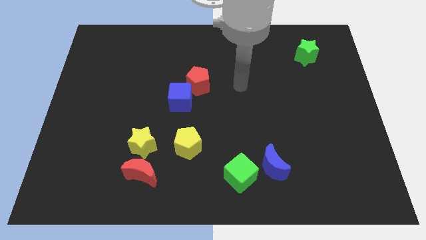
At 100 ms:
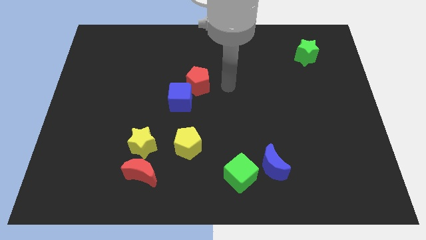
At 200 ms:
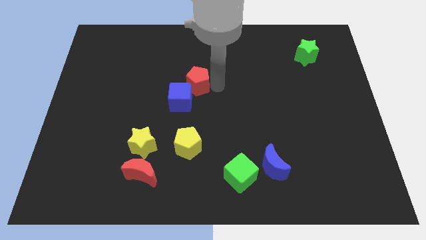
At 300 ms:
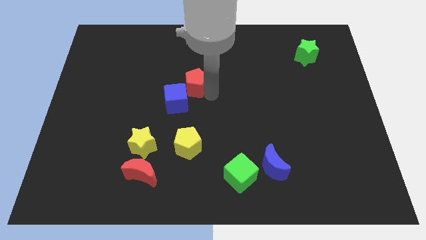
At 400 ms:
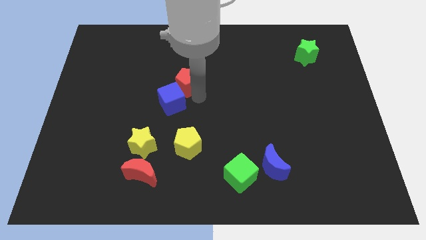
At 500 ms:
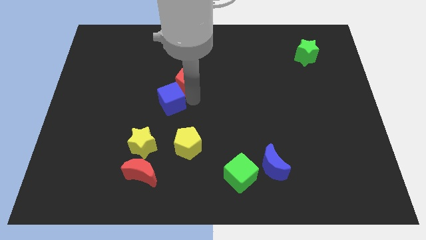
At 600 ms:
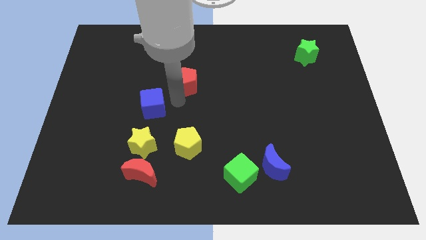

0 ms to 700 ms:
move the red pentagon away from the blue cube

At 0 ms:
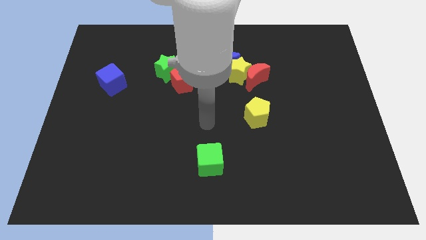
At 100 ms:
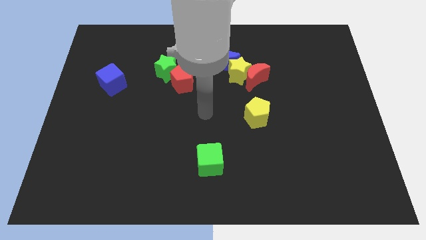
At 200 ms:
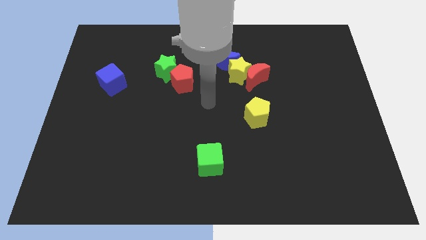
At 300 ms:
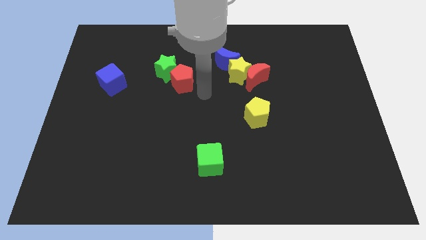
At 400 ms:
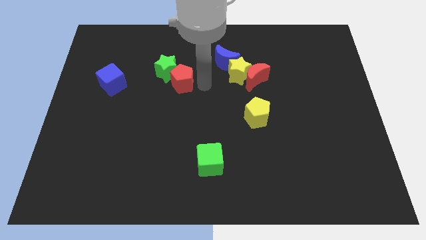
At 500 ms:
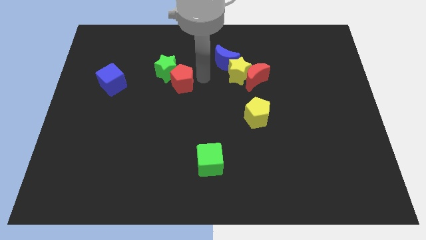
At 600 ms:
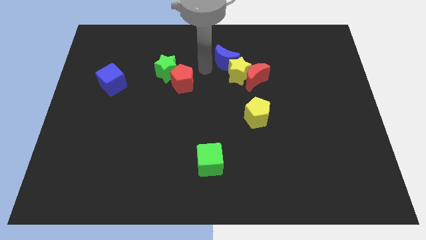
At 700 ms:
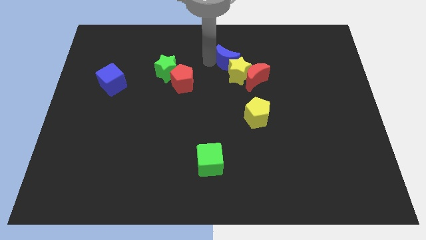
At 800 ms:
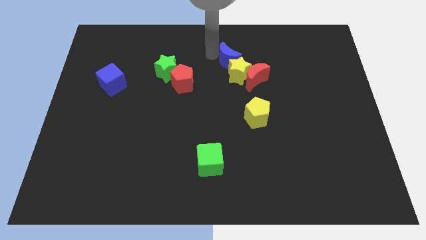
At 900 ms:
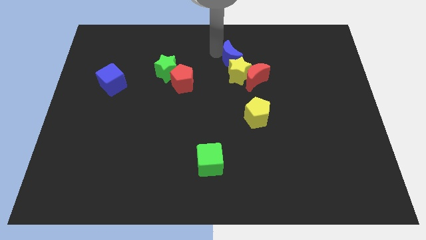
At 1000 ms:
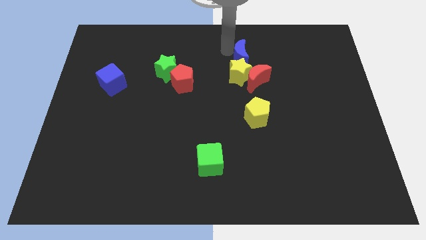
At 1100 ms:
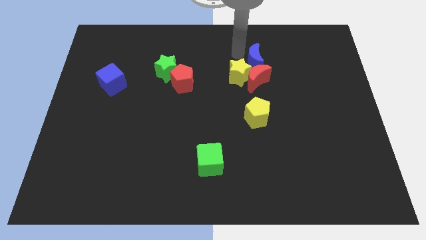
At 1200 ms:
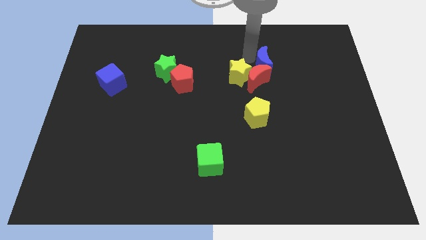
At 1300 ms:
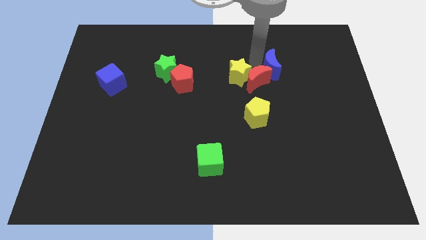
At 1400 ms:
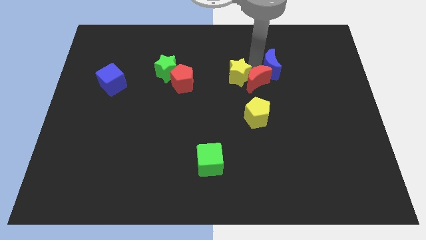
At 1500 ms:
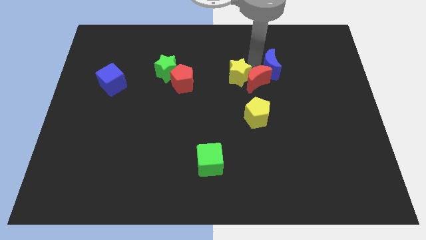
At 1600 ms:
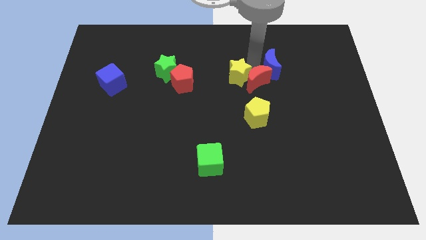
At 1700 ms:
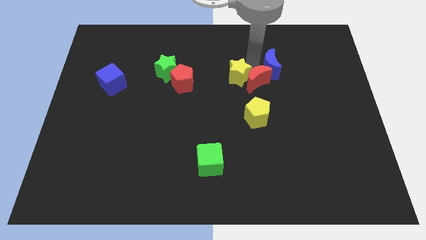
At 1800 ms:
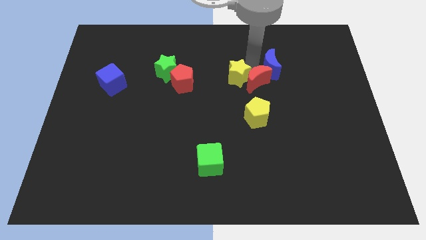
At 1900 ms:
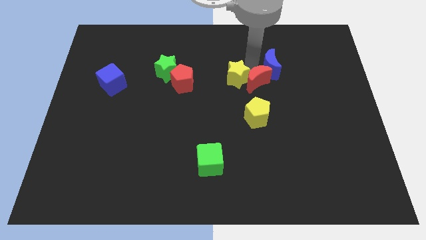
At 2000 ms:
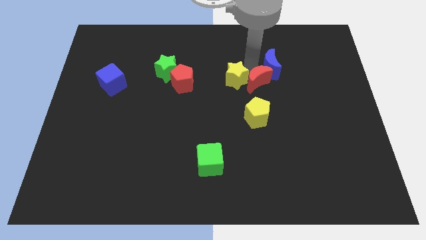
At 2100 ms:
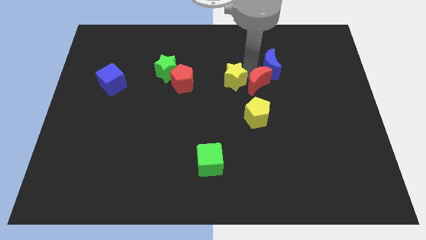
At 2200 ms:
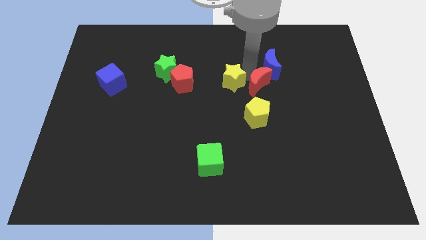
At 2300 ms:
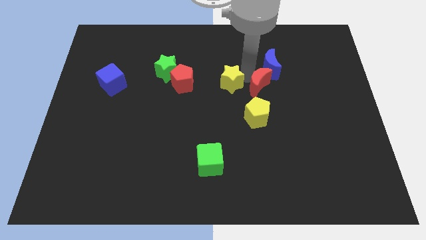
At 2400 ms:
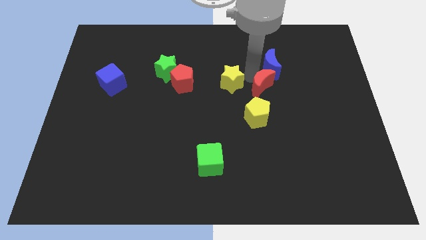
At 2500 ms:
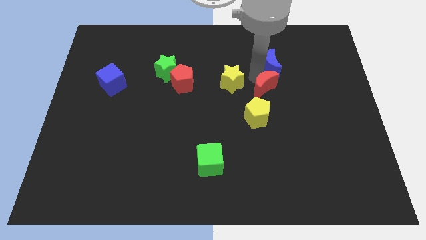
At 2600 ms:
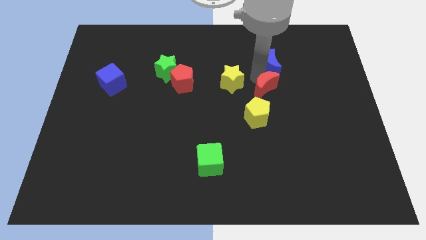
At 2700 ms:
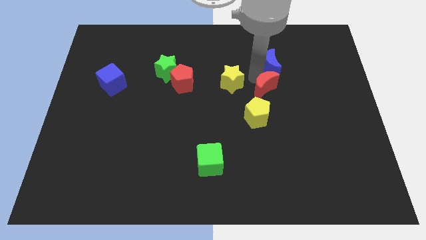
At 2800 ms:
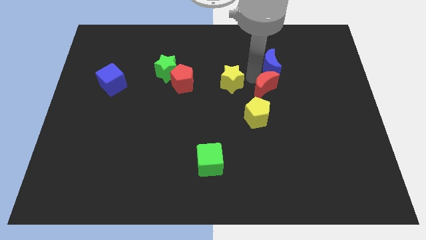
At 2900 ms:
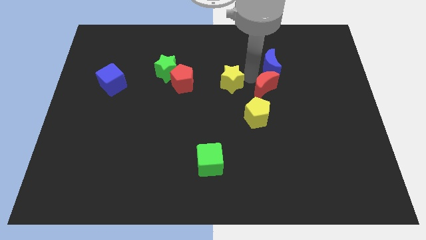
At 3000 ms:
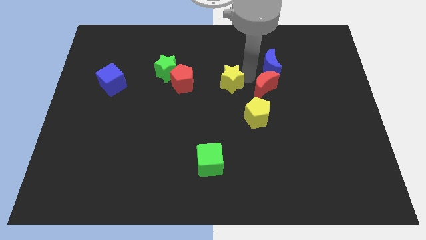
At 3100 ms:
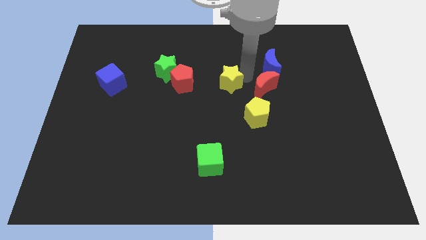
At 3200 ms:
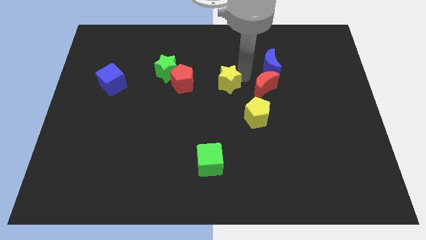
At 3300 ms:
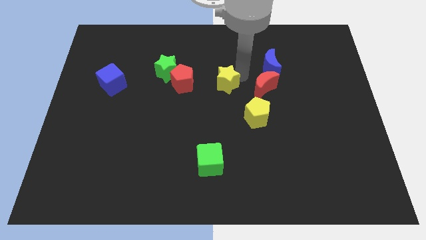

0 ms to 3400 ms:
pull the yellow star apart from the red moon and blue moon

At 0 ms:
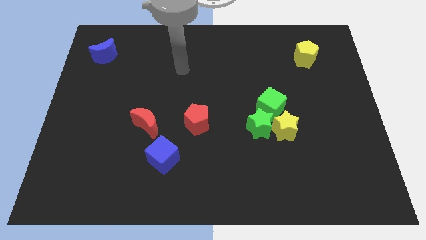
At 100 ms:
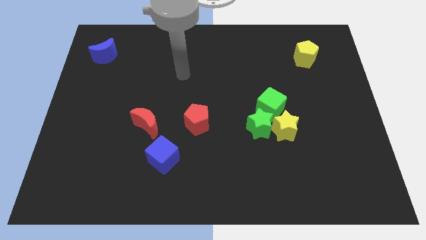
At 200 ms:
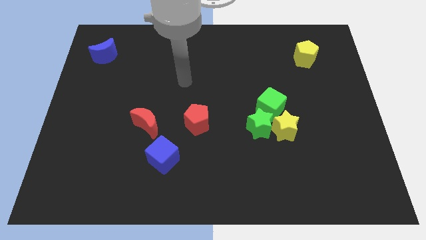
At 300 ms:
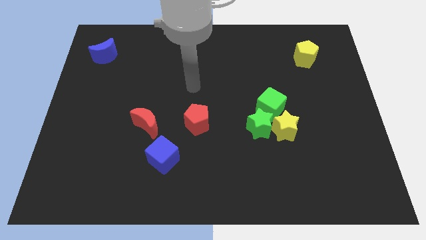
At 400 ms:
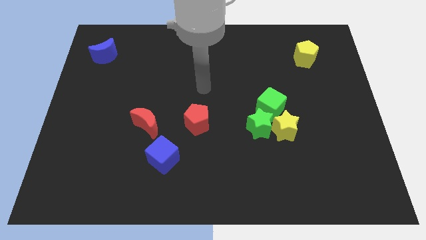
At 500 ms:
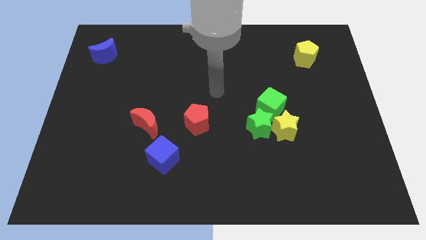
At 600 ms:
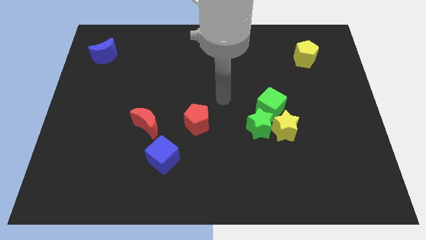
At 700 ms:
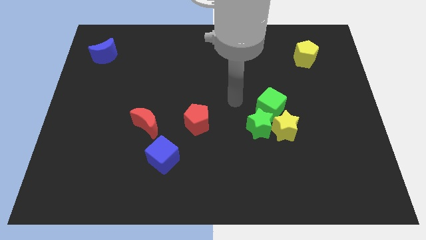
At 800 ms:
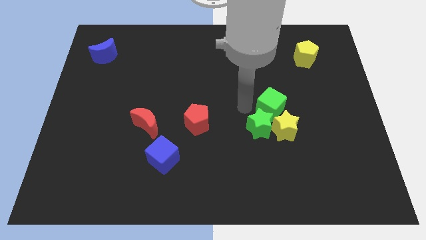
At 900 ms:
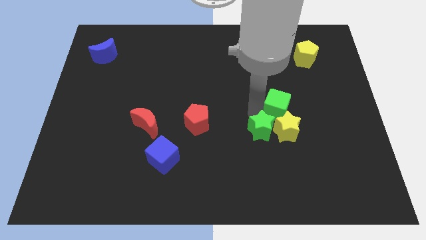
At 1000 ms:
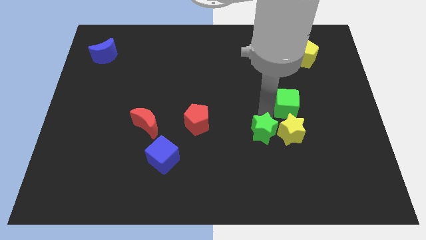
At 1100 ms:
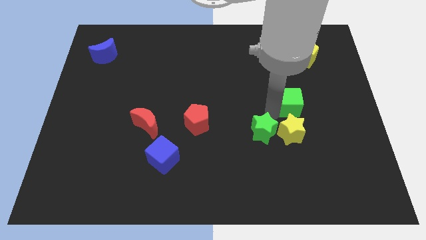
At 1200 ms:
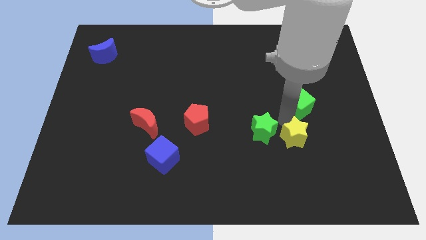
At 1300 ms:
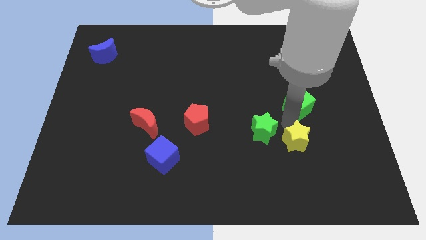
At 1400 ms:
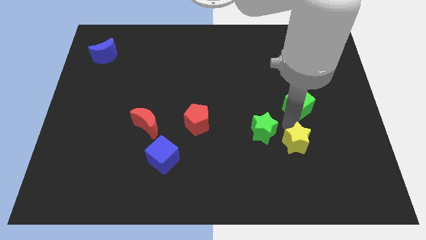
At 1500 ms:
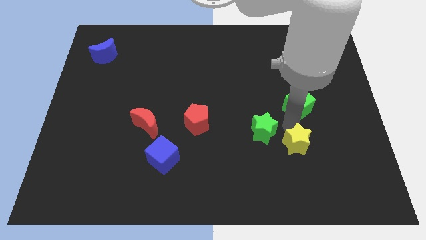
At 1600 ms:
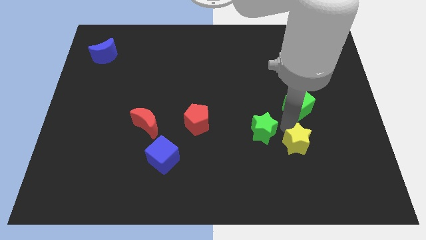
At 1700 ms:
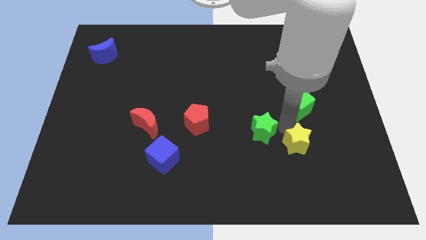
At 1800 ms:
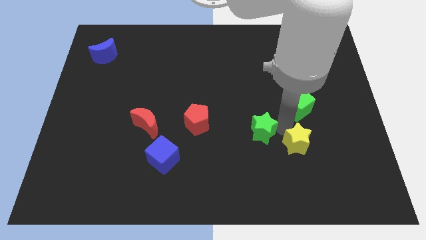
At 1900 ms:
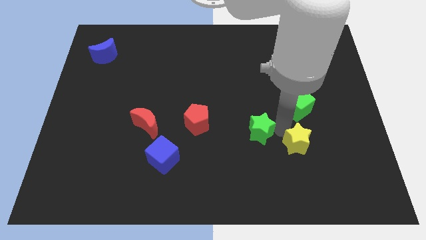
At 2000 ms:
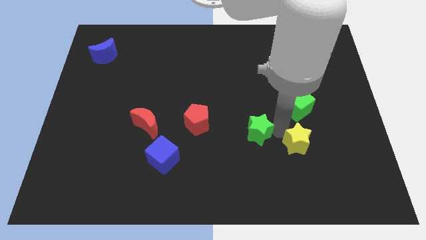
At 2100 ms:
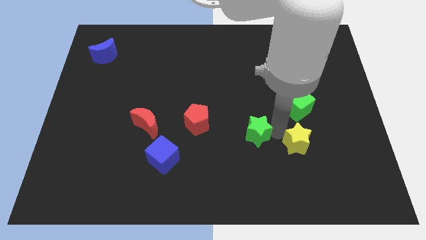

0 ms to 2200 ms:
separate the green star from the yellow star and green cube

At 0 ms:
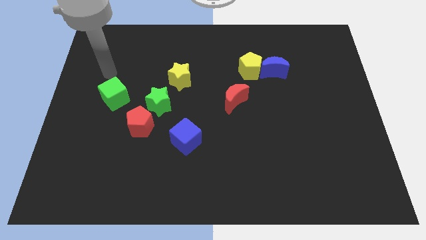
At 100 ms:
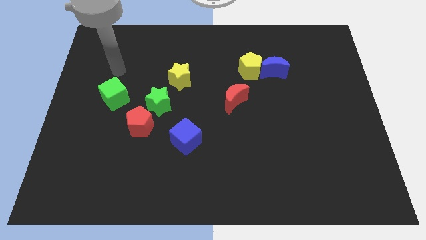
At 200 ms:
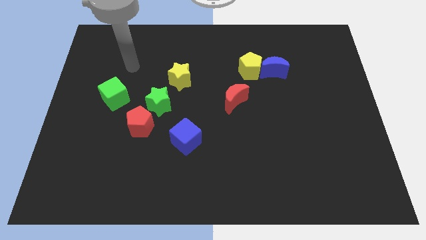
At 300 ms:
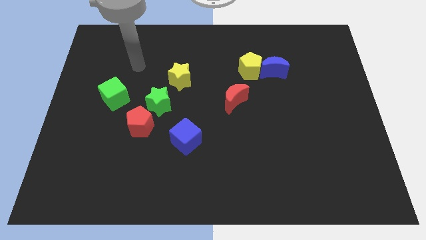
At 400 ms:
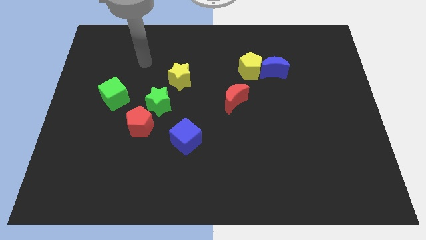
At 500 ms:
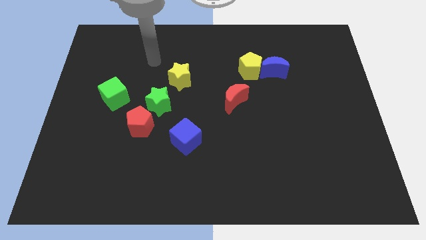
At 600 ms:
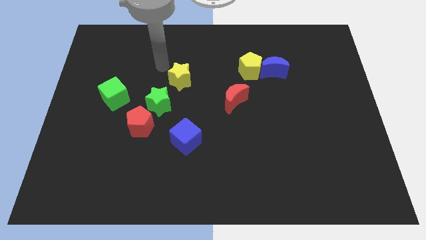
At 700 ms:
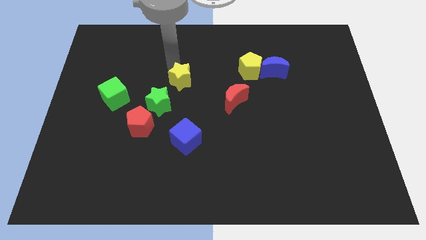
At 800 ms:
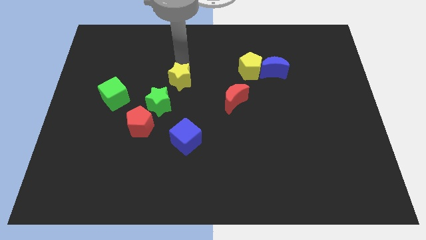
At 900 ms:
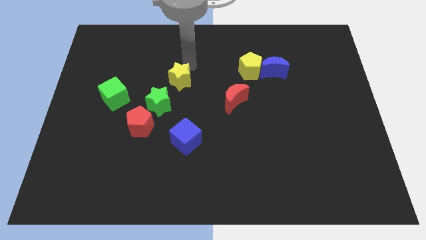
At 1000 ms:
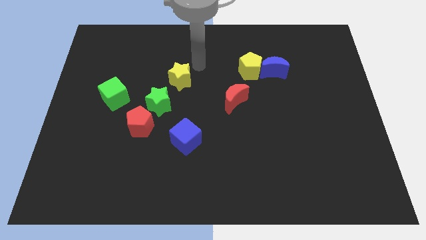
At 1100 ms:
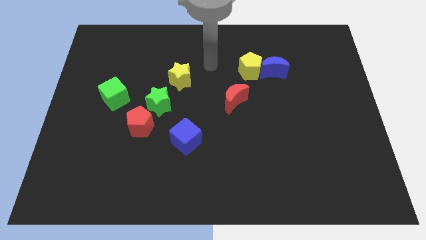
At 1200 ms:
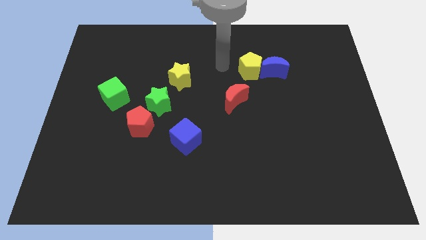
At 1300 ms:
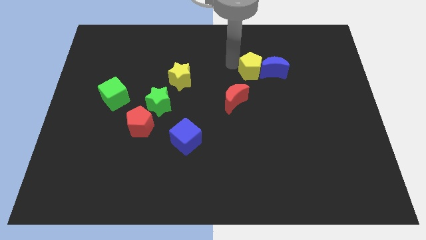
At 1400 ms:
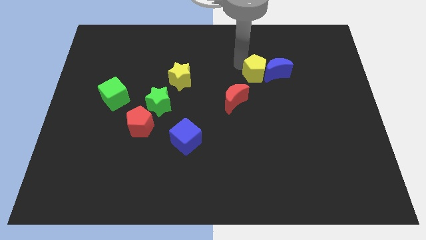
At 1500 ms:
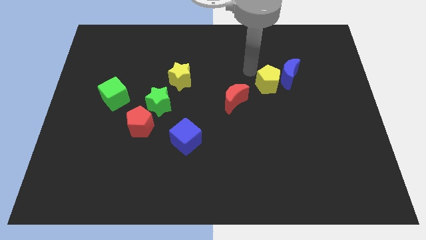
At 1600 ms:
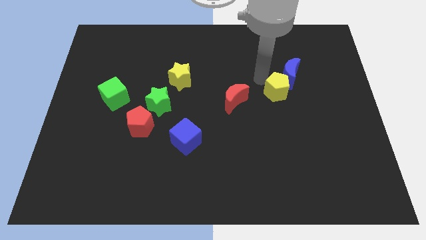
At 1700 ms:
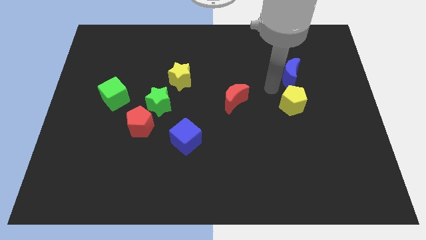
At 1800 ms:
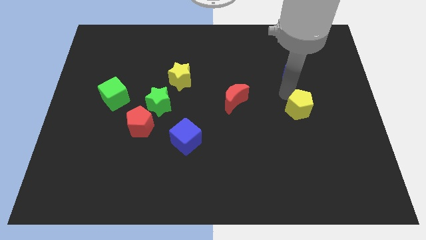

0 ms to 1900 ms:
separate the blue moon from the yellow pentagon

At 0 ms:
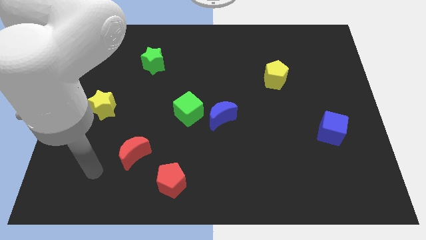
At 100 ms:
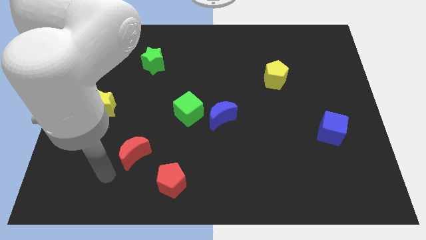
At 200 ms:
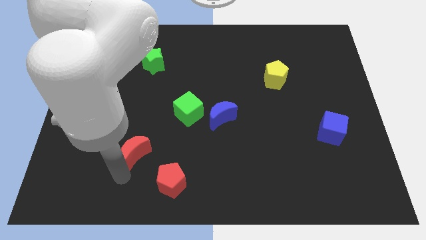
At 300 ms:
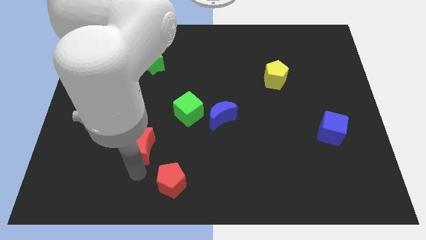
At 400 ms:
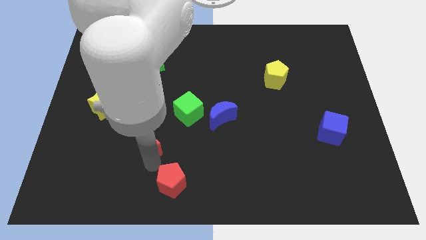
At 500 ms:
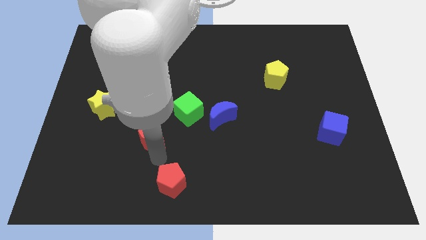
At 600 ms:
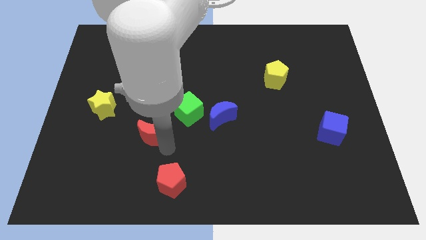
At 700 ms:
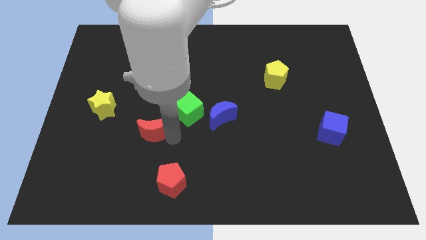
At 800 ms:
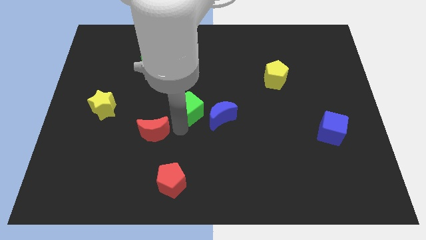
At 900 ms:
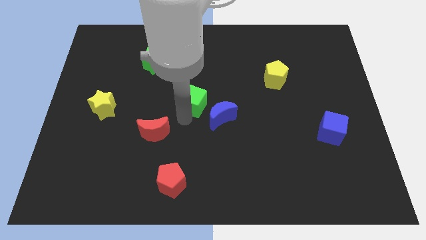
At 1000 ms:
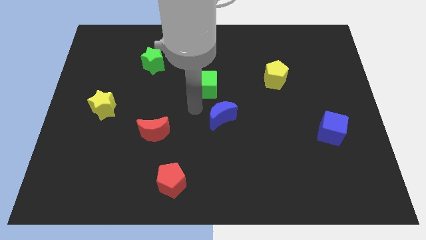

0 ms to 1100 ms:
separate the blue moon from the green cube
